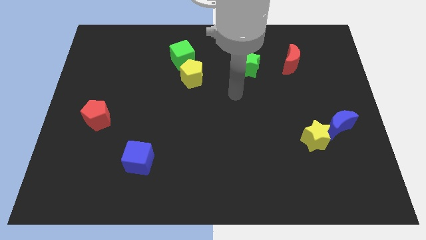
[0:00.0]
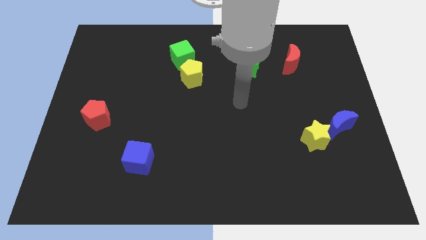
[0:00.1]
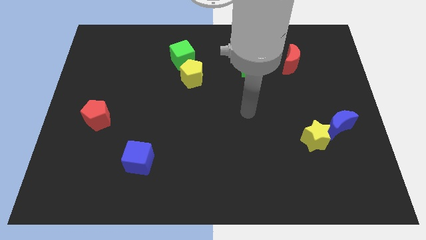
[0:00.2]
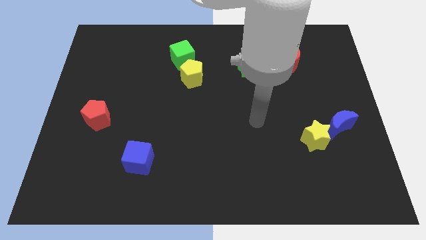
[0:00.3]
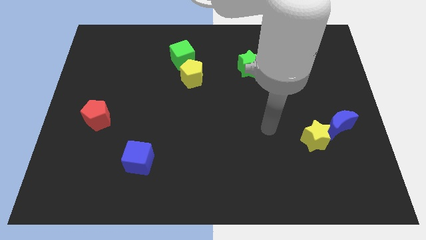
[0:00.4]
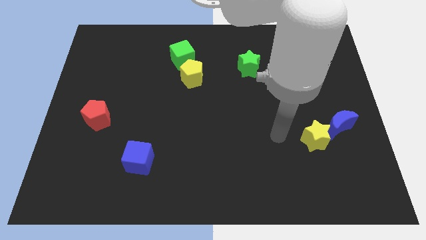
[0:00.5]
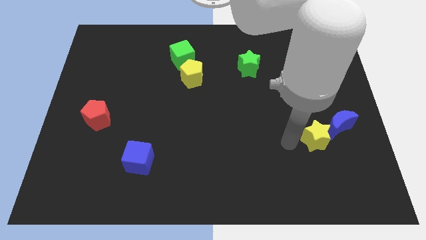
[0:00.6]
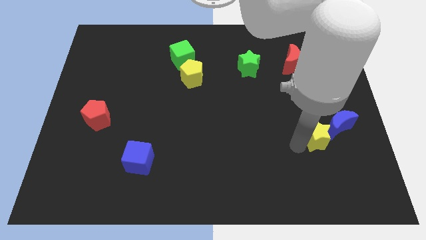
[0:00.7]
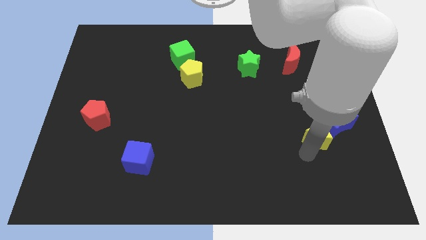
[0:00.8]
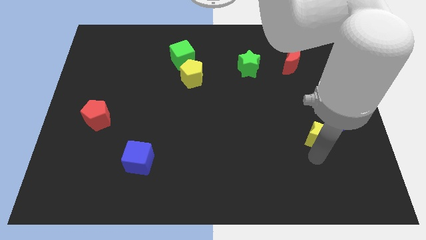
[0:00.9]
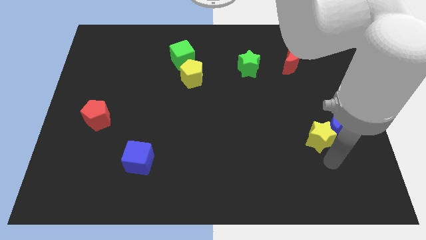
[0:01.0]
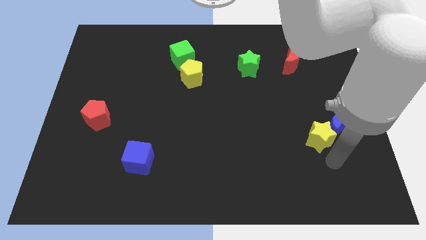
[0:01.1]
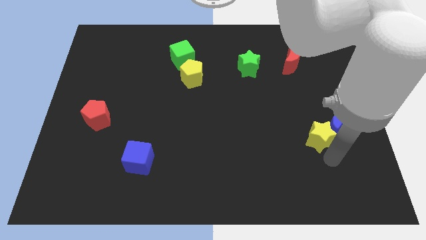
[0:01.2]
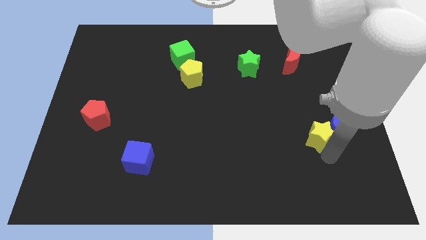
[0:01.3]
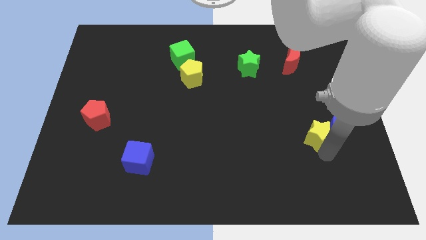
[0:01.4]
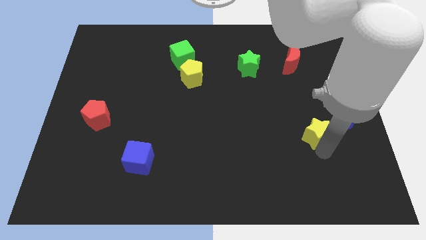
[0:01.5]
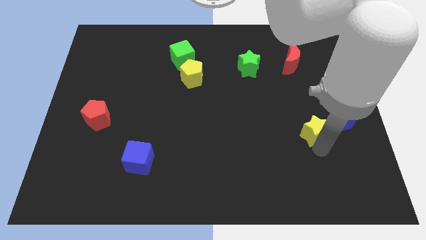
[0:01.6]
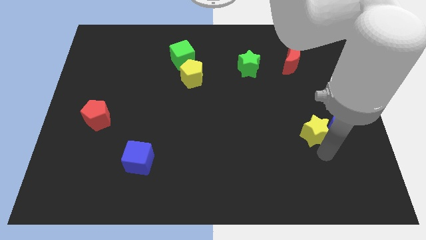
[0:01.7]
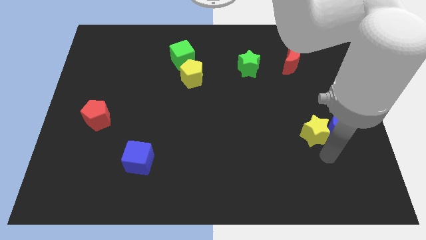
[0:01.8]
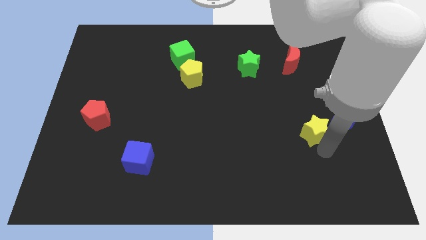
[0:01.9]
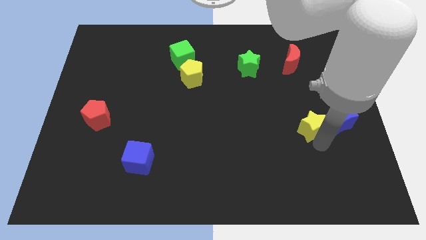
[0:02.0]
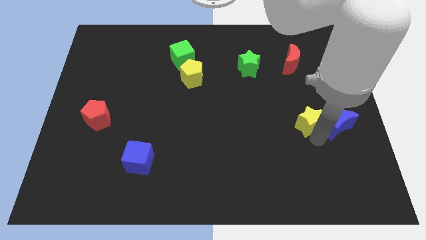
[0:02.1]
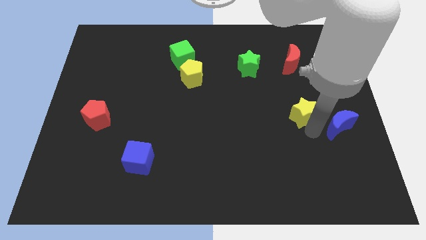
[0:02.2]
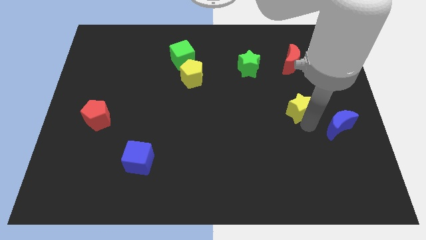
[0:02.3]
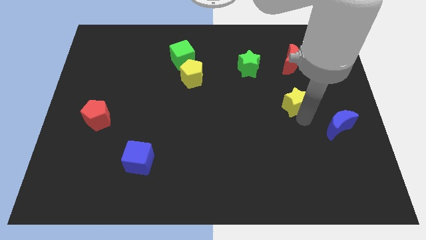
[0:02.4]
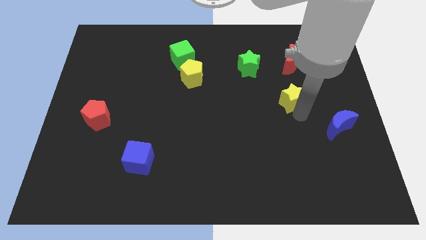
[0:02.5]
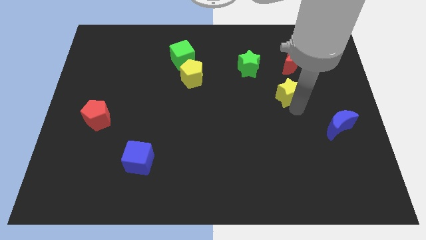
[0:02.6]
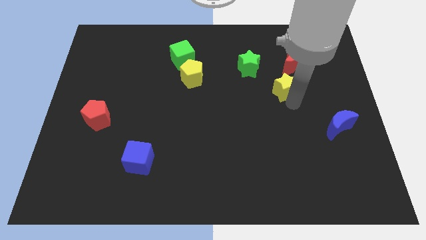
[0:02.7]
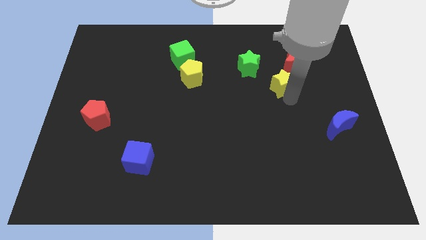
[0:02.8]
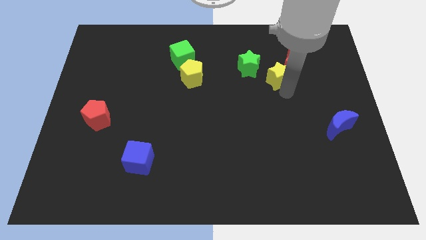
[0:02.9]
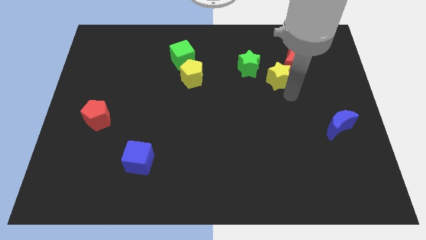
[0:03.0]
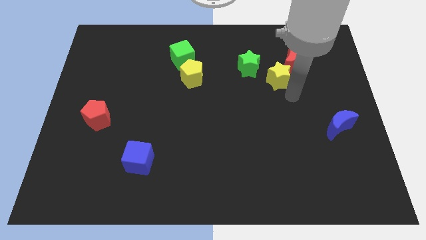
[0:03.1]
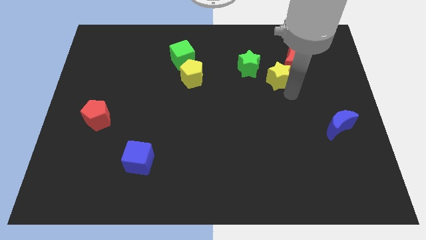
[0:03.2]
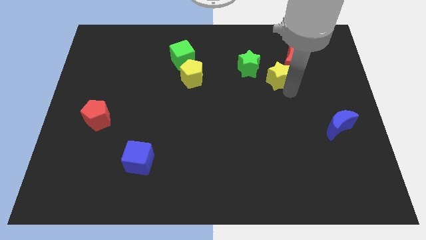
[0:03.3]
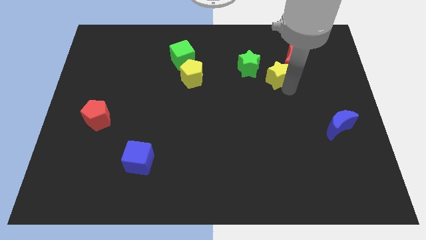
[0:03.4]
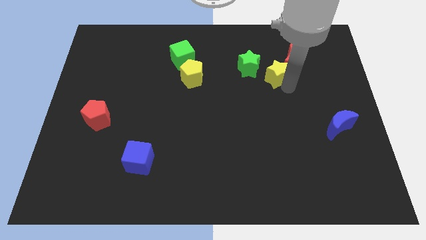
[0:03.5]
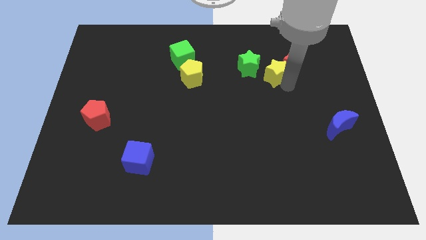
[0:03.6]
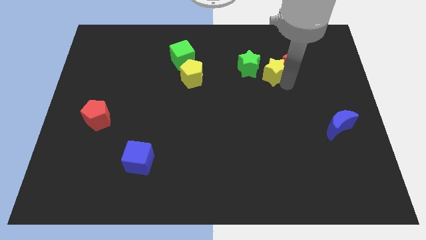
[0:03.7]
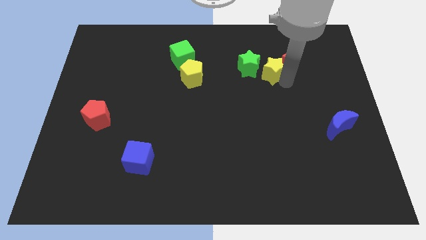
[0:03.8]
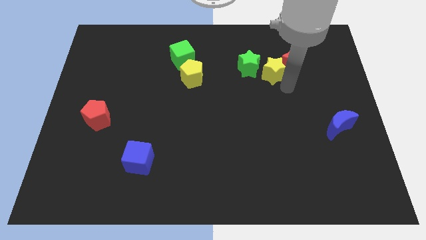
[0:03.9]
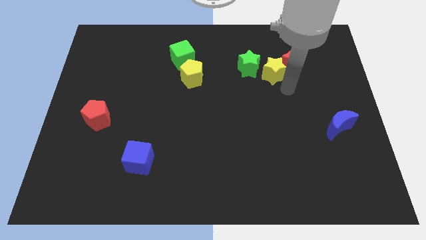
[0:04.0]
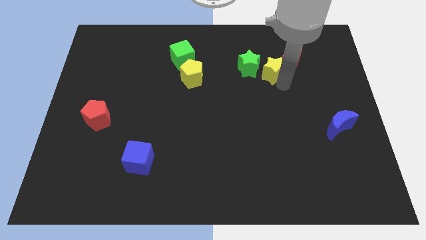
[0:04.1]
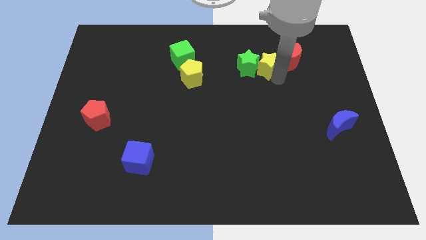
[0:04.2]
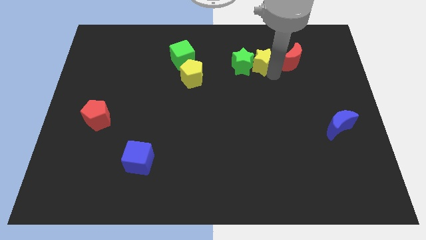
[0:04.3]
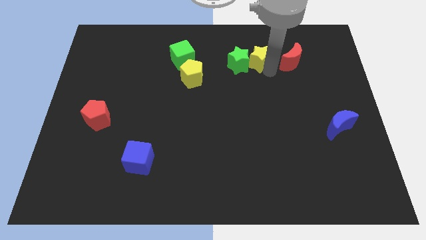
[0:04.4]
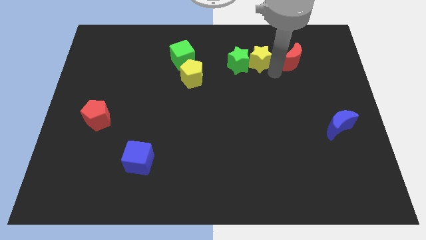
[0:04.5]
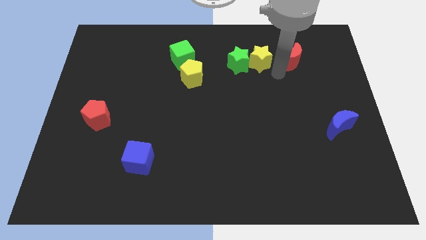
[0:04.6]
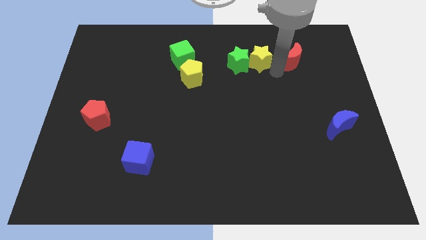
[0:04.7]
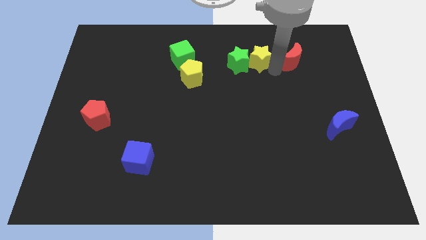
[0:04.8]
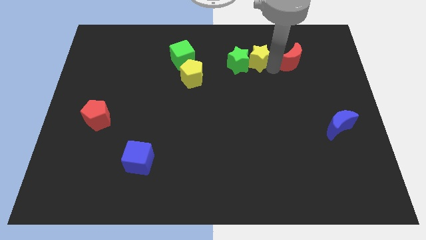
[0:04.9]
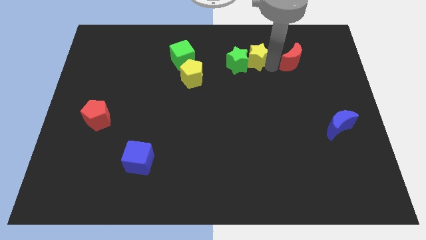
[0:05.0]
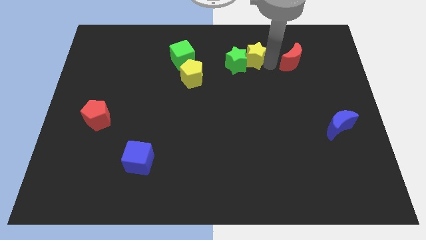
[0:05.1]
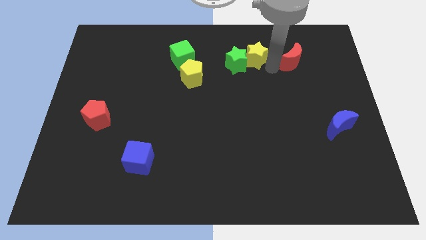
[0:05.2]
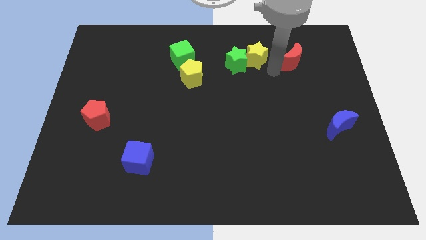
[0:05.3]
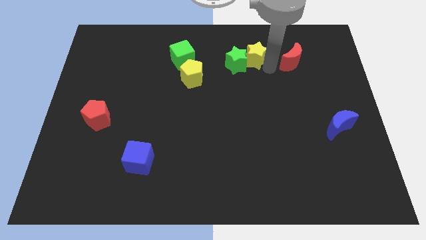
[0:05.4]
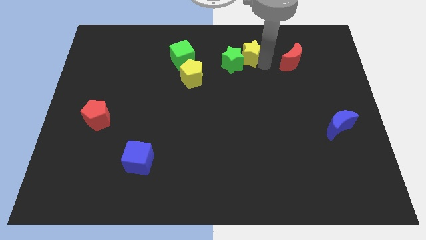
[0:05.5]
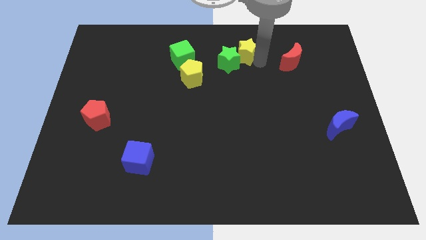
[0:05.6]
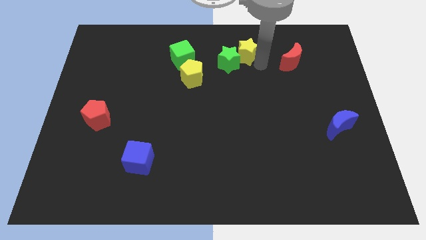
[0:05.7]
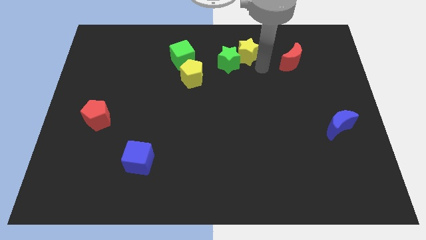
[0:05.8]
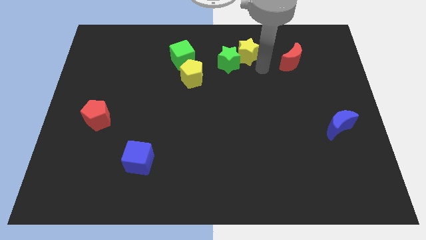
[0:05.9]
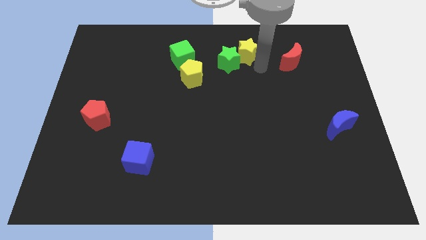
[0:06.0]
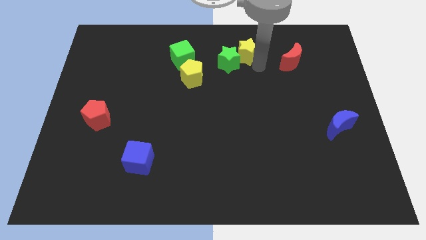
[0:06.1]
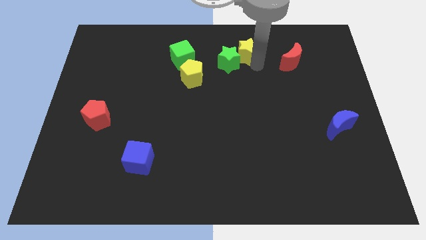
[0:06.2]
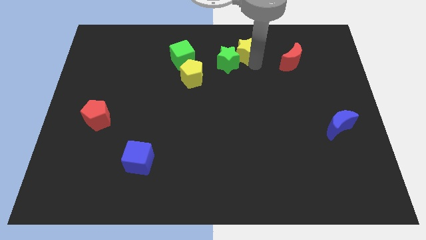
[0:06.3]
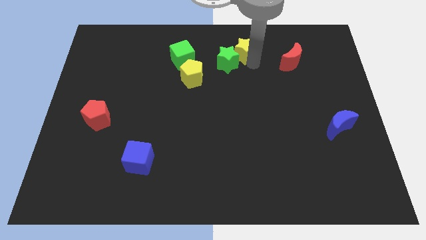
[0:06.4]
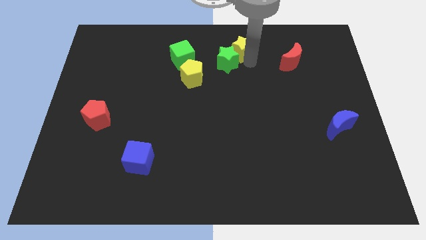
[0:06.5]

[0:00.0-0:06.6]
put the yellow star to the towards your base
